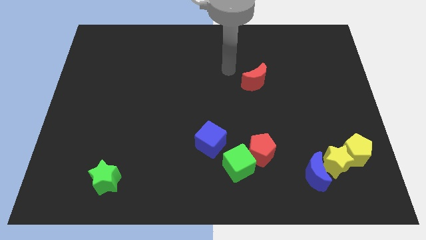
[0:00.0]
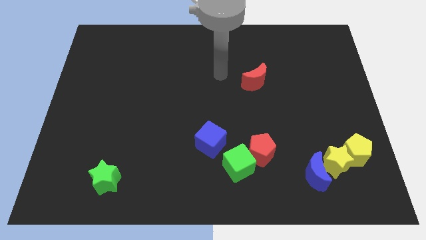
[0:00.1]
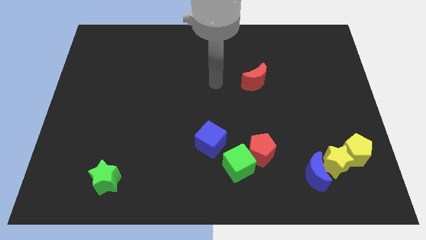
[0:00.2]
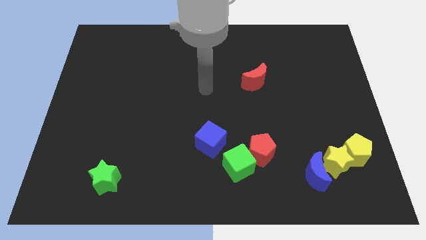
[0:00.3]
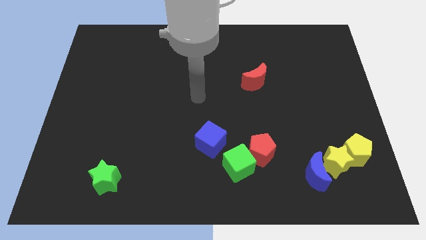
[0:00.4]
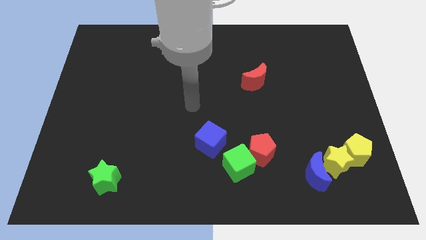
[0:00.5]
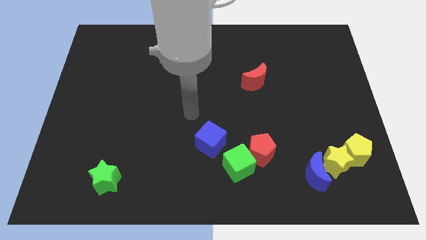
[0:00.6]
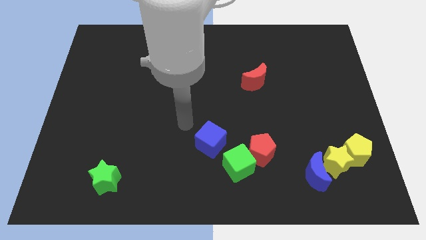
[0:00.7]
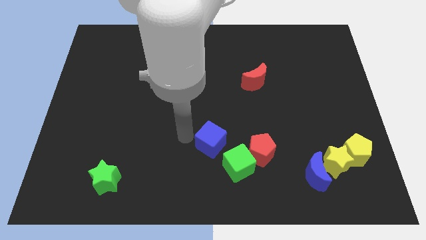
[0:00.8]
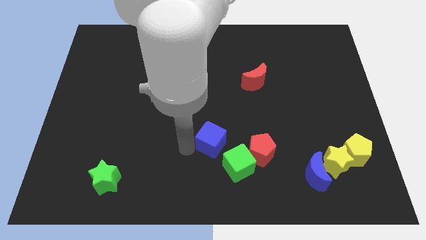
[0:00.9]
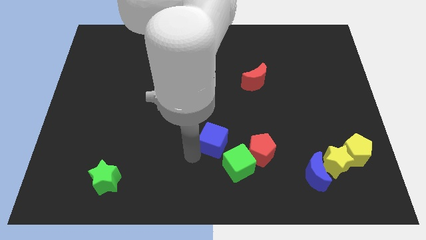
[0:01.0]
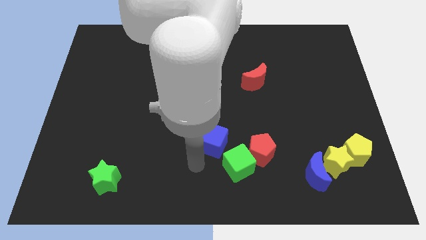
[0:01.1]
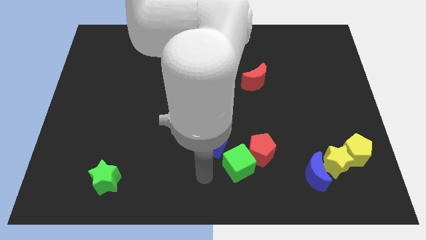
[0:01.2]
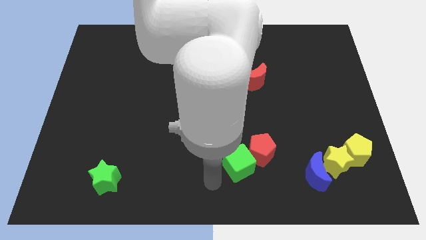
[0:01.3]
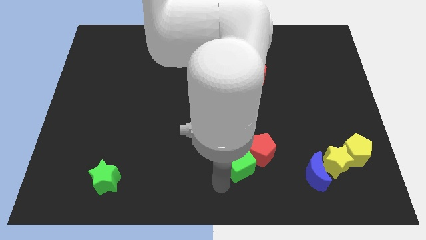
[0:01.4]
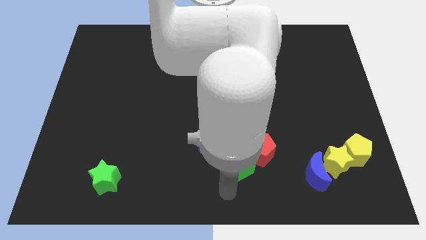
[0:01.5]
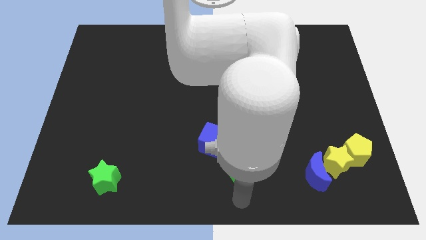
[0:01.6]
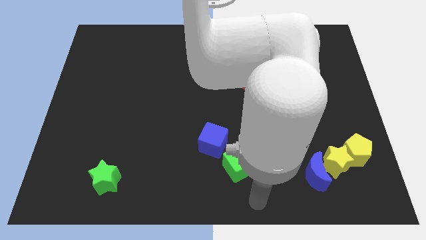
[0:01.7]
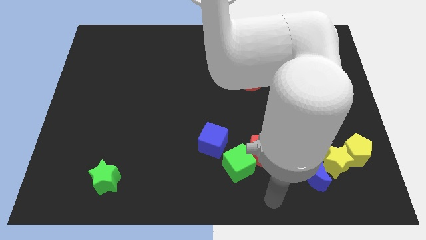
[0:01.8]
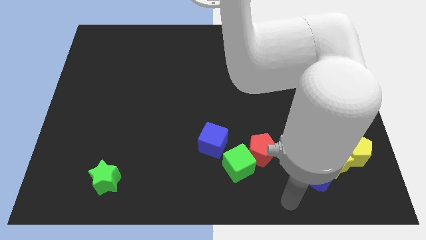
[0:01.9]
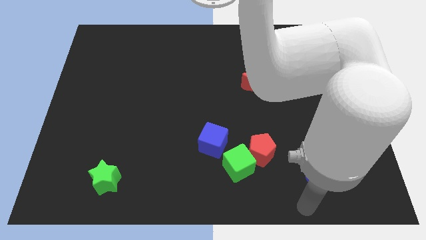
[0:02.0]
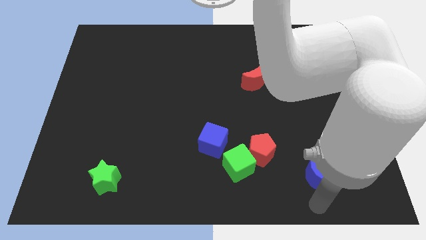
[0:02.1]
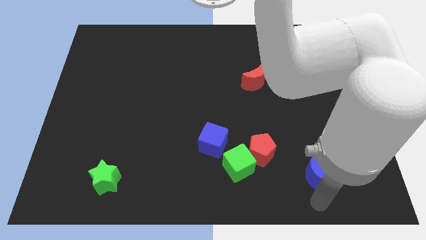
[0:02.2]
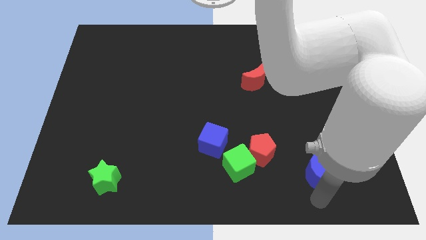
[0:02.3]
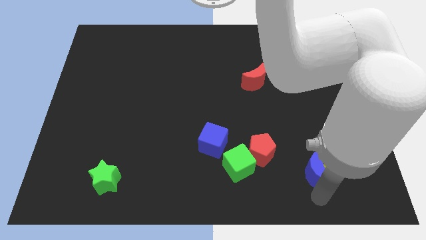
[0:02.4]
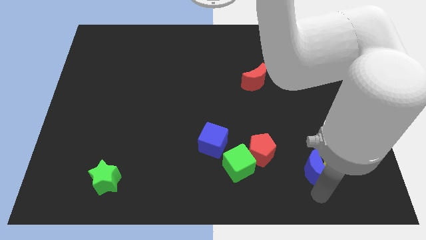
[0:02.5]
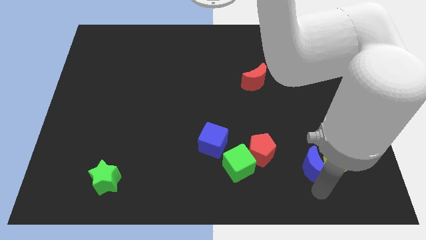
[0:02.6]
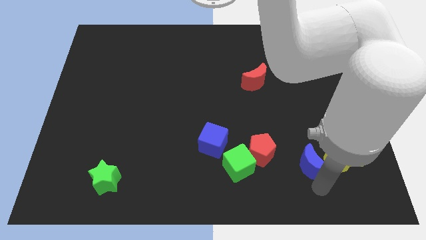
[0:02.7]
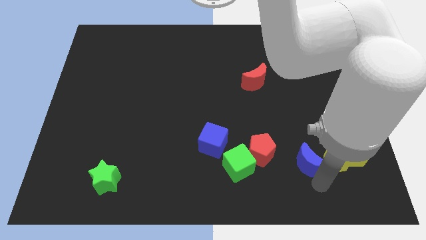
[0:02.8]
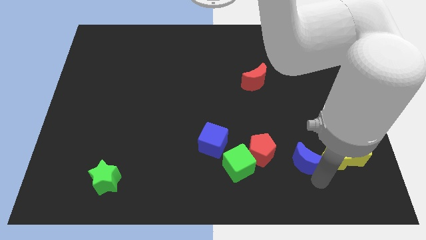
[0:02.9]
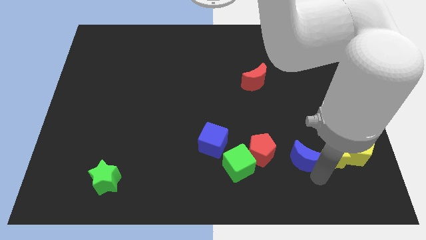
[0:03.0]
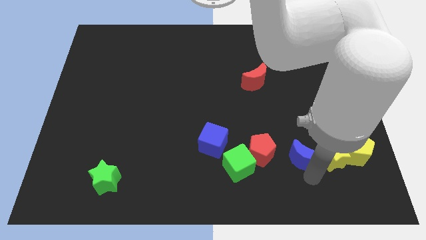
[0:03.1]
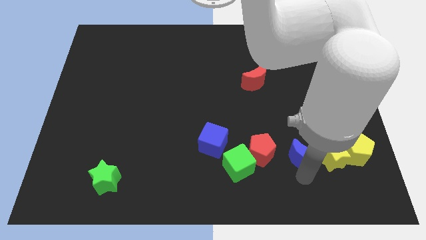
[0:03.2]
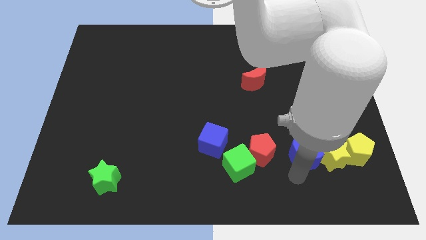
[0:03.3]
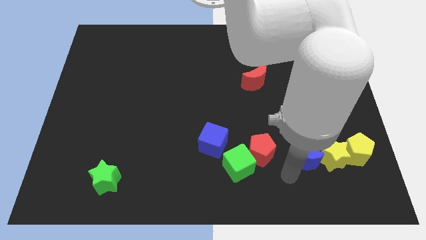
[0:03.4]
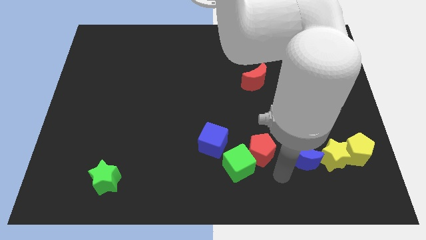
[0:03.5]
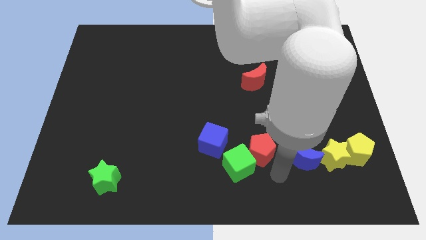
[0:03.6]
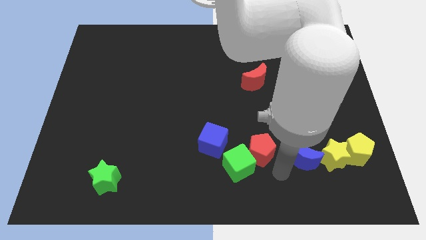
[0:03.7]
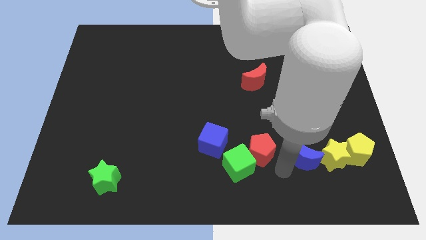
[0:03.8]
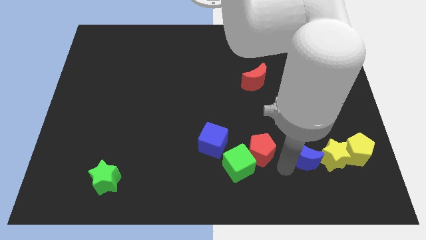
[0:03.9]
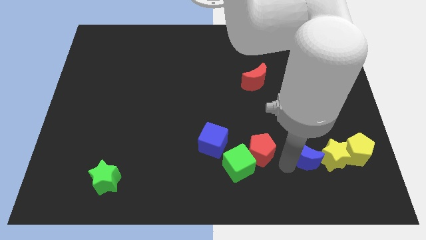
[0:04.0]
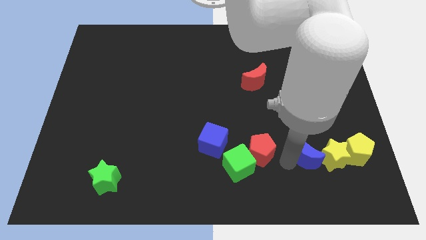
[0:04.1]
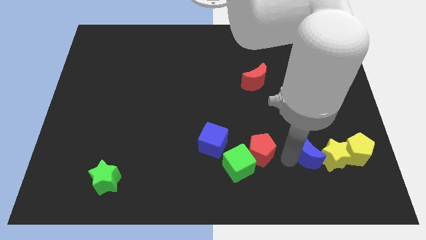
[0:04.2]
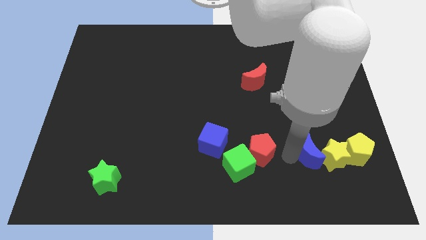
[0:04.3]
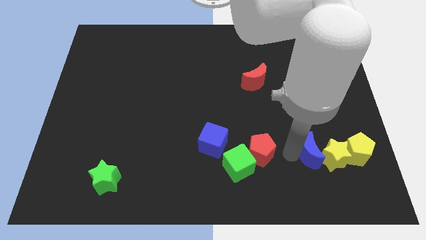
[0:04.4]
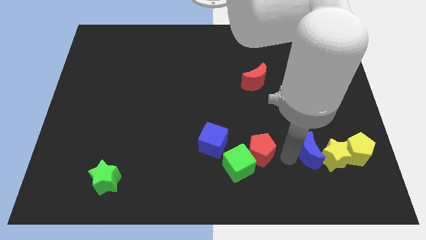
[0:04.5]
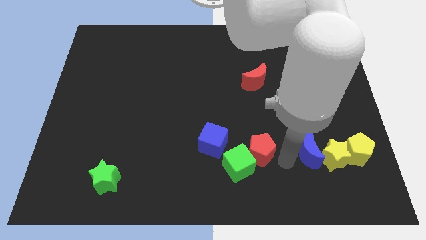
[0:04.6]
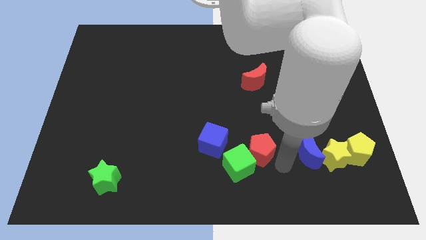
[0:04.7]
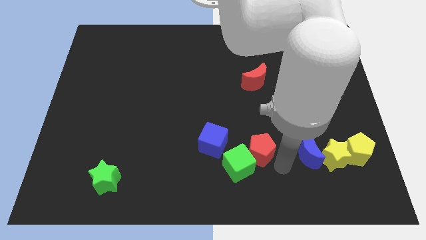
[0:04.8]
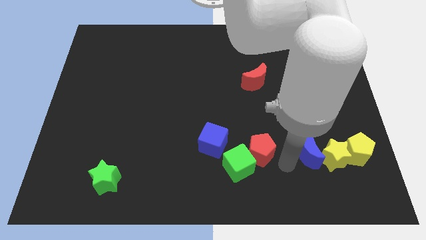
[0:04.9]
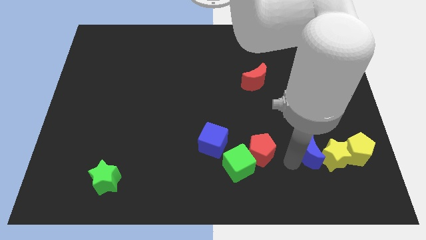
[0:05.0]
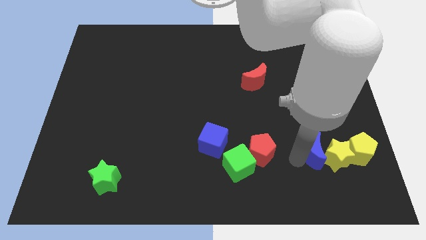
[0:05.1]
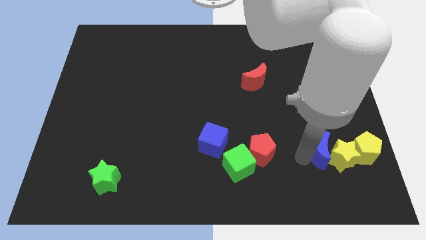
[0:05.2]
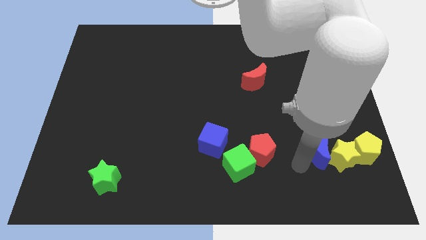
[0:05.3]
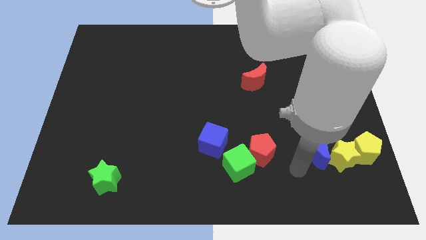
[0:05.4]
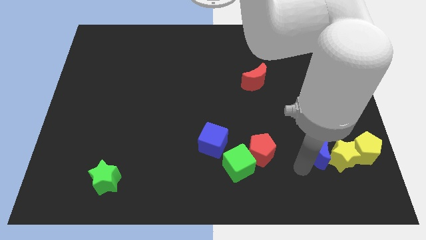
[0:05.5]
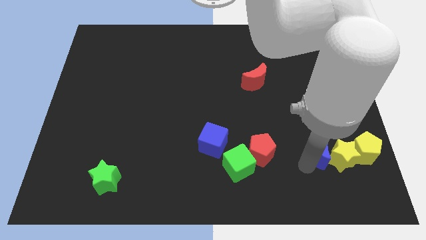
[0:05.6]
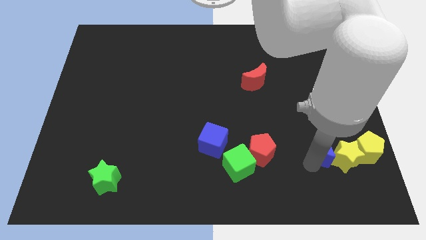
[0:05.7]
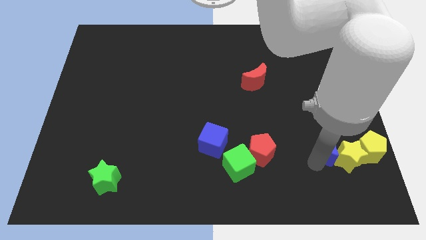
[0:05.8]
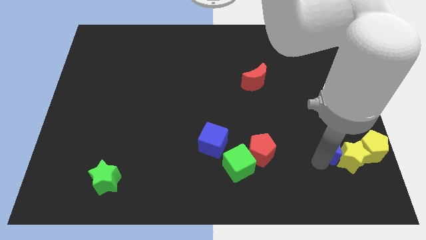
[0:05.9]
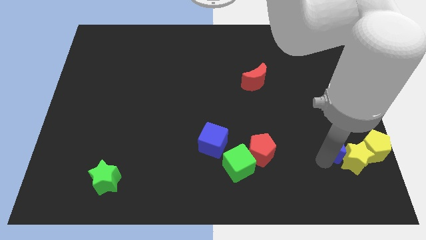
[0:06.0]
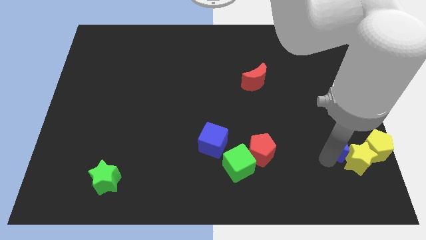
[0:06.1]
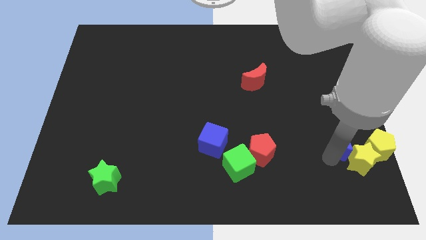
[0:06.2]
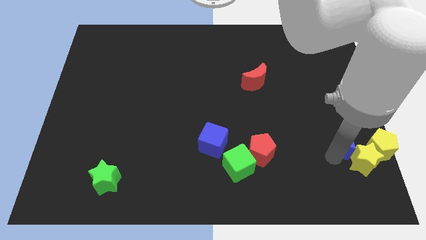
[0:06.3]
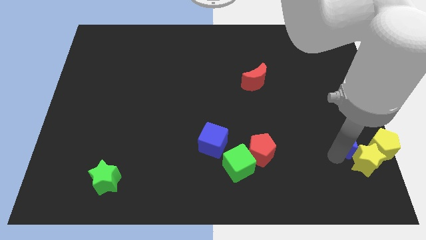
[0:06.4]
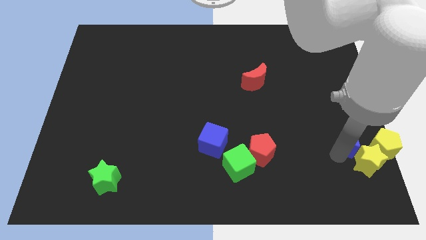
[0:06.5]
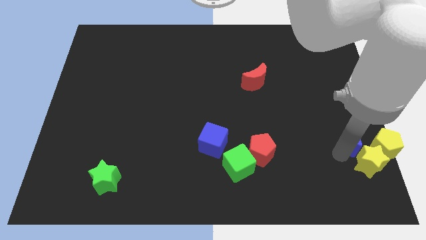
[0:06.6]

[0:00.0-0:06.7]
slide the blue moon to the center right
